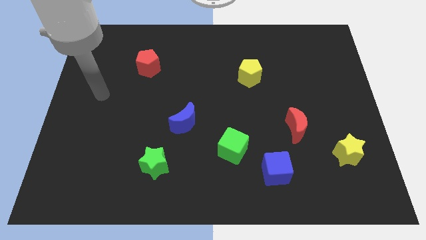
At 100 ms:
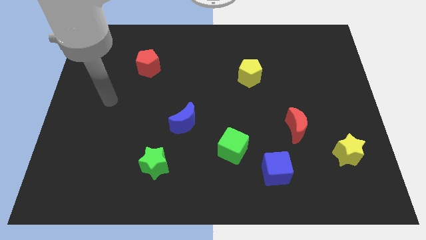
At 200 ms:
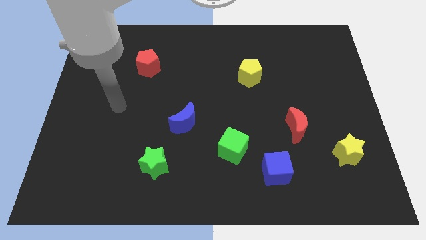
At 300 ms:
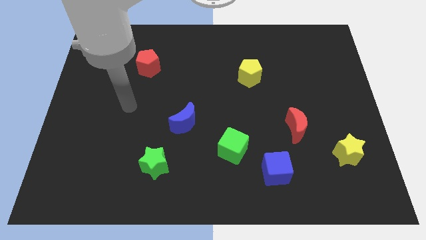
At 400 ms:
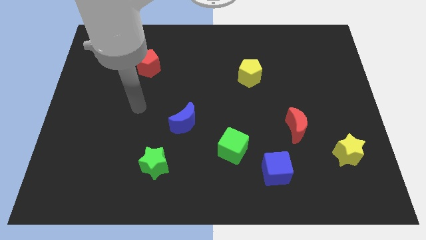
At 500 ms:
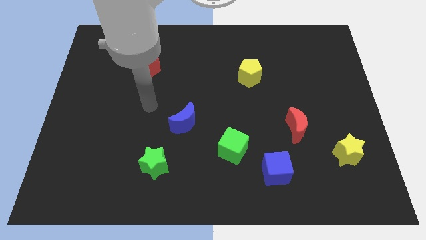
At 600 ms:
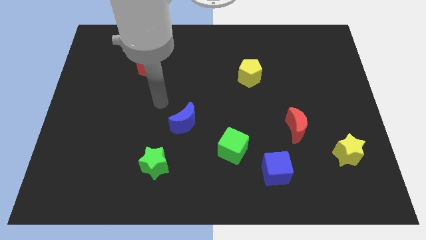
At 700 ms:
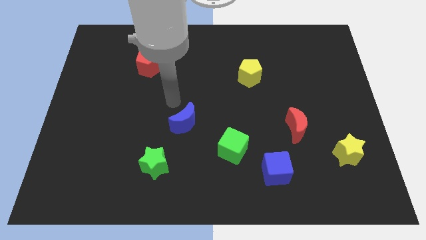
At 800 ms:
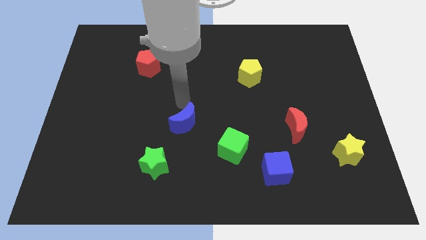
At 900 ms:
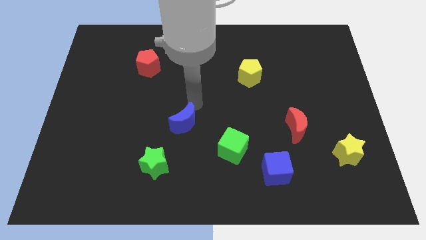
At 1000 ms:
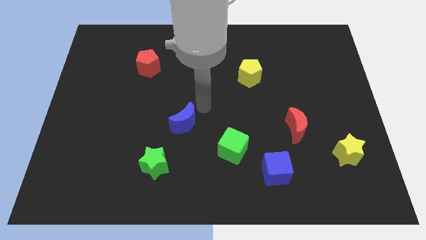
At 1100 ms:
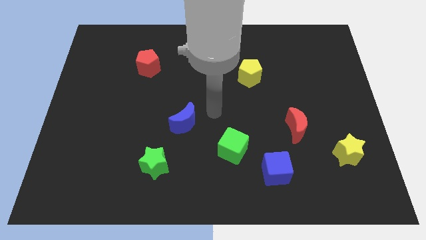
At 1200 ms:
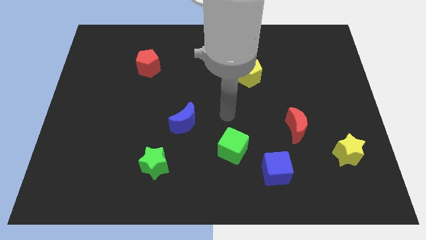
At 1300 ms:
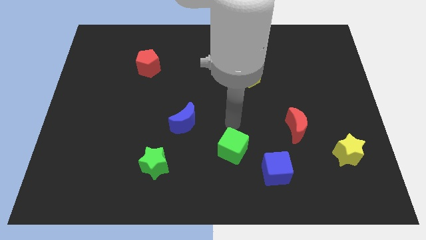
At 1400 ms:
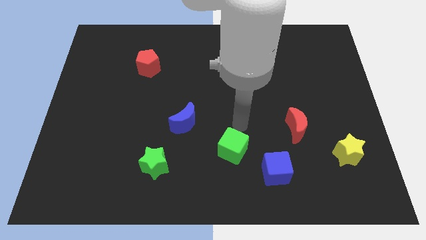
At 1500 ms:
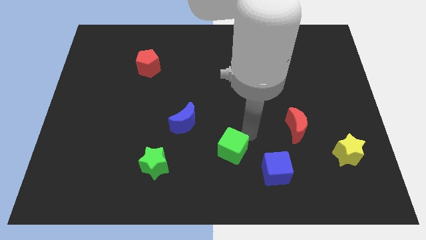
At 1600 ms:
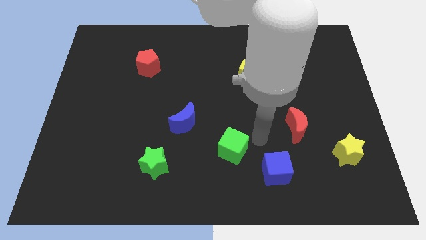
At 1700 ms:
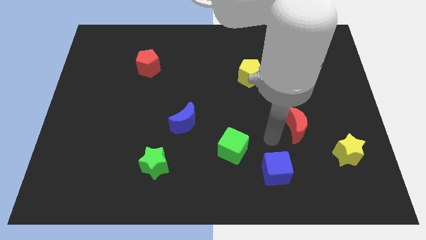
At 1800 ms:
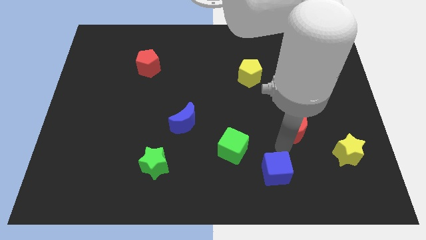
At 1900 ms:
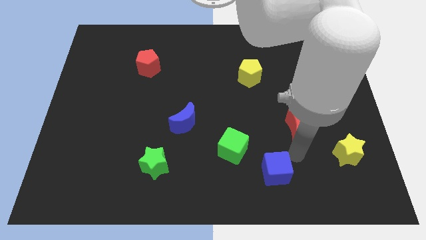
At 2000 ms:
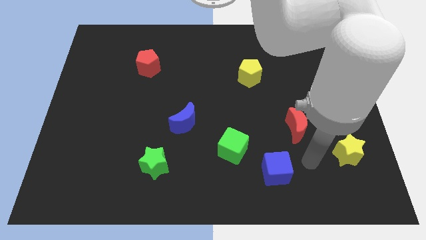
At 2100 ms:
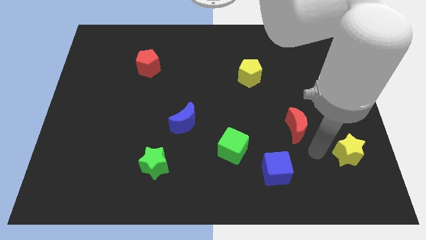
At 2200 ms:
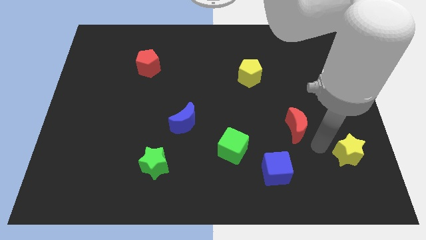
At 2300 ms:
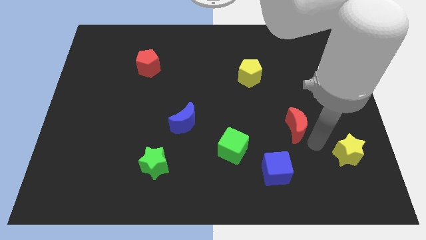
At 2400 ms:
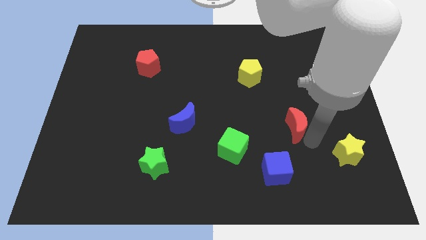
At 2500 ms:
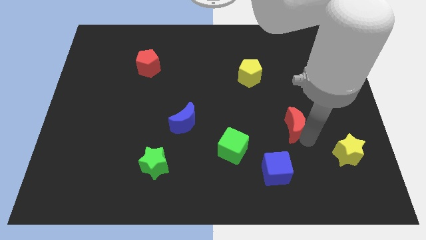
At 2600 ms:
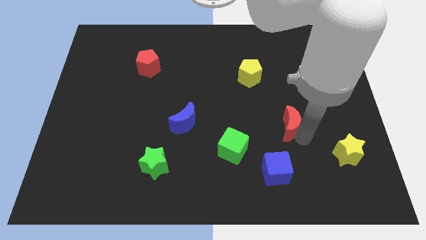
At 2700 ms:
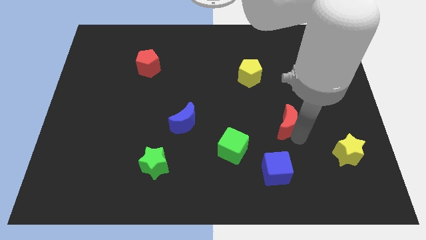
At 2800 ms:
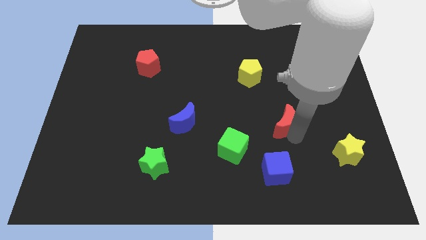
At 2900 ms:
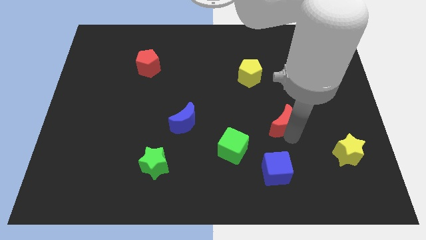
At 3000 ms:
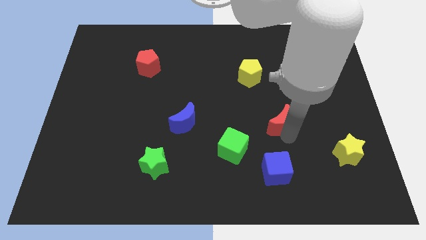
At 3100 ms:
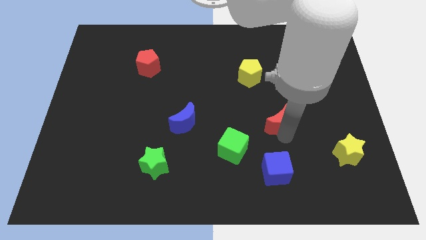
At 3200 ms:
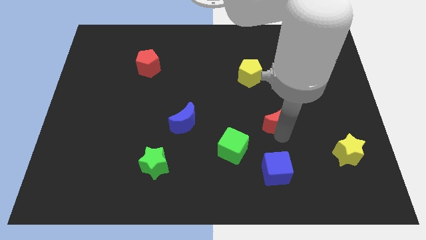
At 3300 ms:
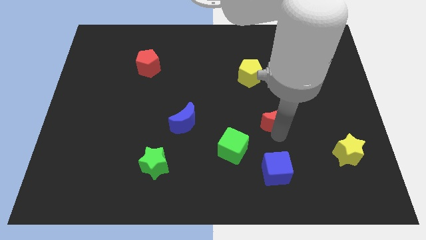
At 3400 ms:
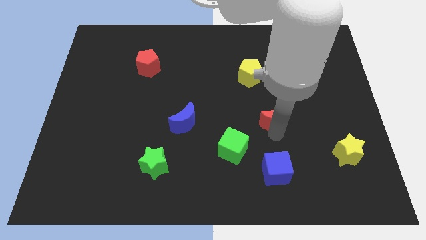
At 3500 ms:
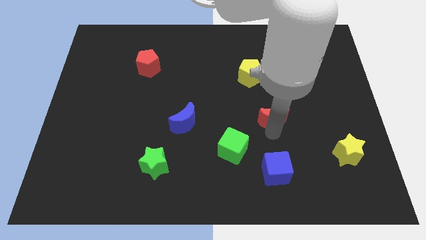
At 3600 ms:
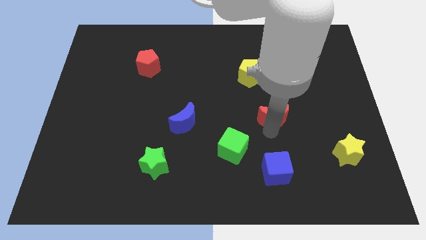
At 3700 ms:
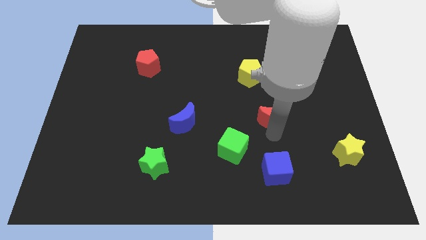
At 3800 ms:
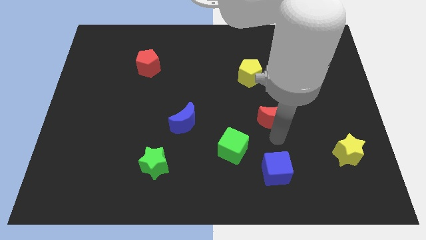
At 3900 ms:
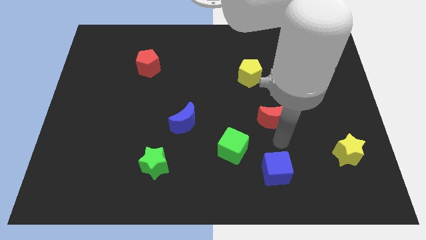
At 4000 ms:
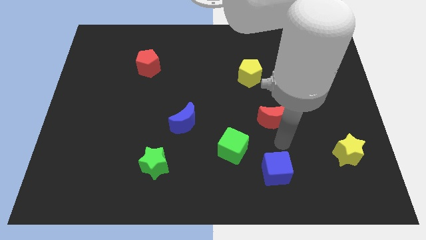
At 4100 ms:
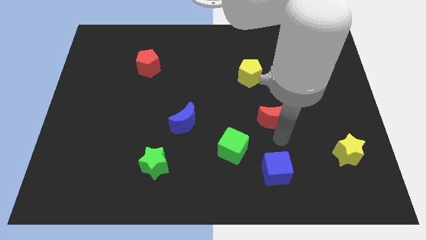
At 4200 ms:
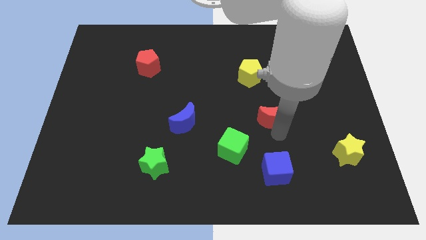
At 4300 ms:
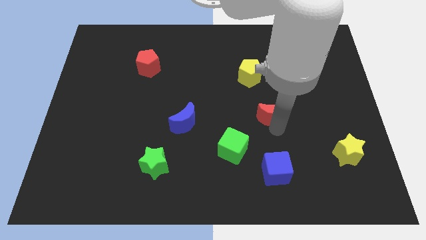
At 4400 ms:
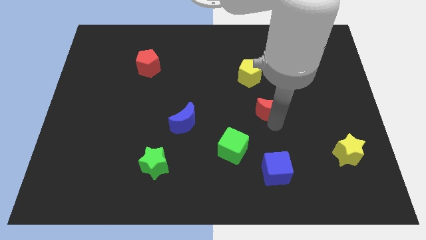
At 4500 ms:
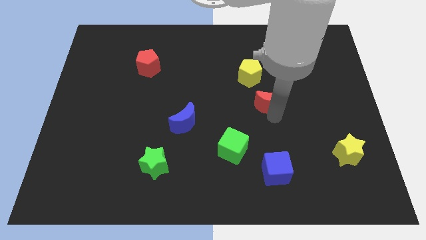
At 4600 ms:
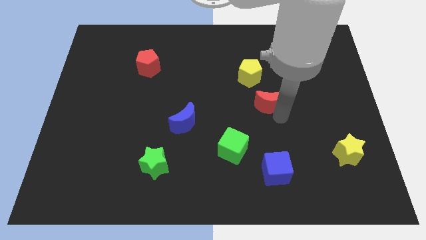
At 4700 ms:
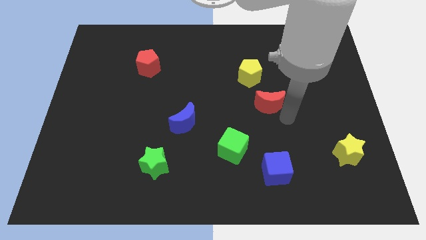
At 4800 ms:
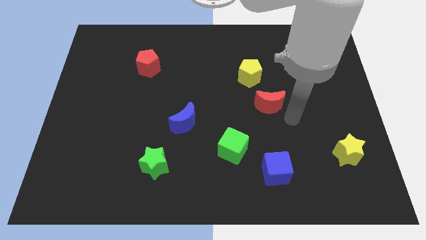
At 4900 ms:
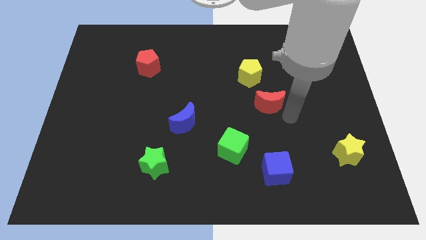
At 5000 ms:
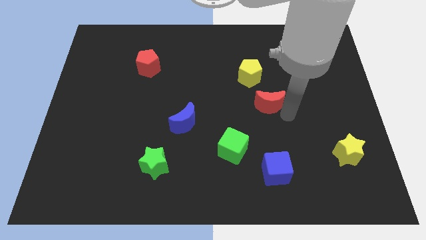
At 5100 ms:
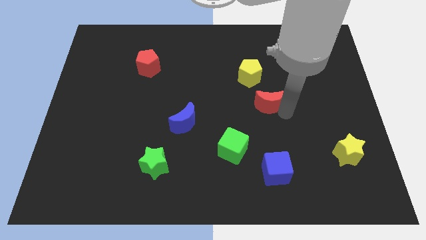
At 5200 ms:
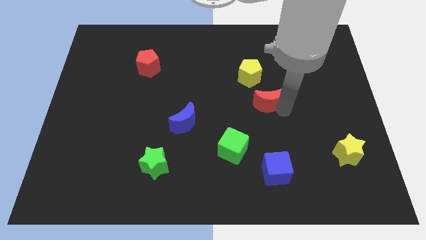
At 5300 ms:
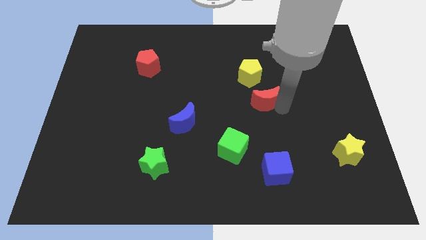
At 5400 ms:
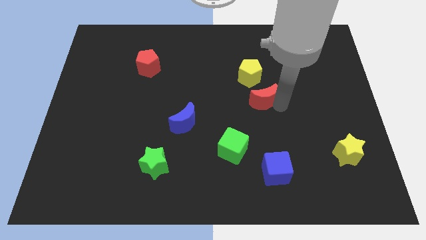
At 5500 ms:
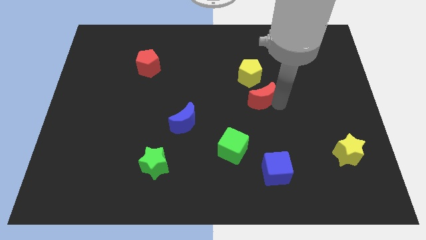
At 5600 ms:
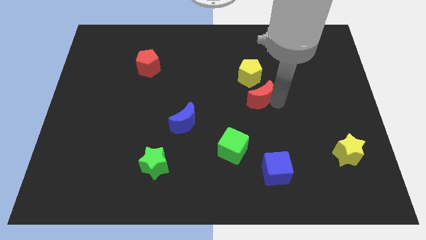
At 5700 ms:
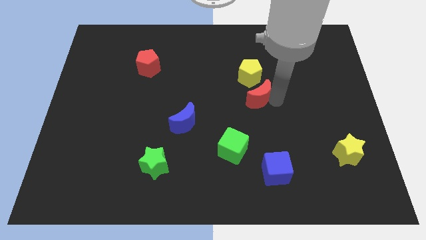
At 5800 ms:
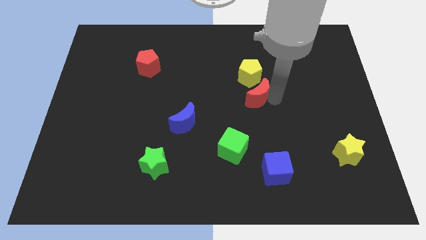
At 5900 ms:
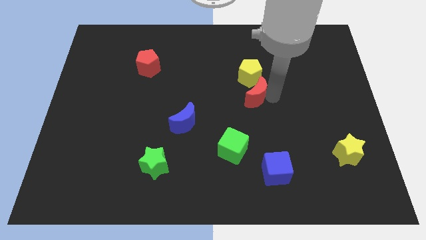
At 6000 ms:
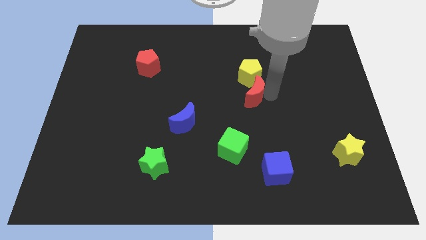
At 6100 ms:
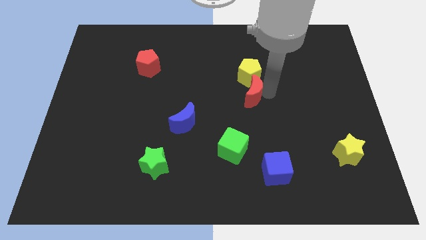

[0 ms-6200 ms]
slide the red moon diagonally down and to the left of the yellow pentagon
